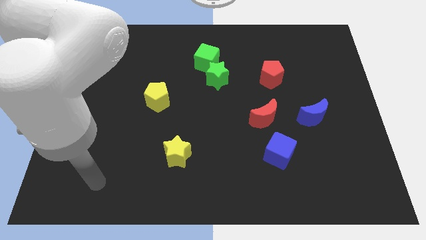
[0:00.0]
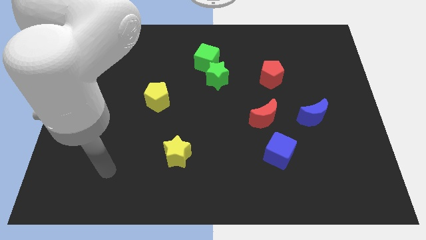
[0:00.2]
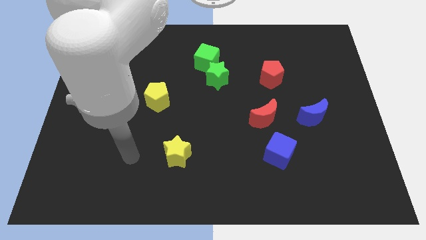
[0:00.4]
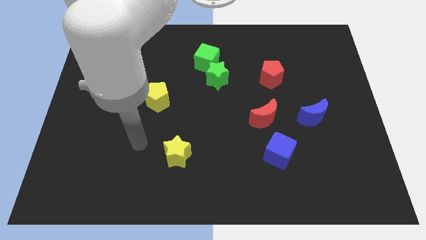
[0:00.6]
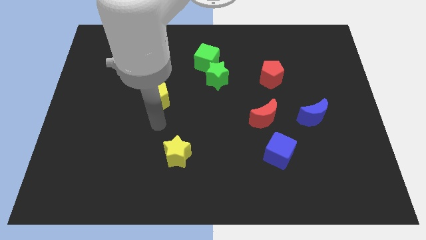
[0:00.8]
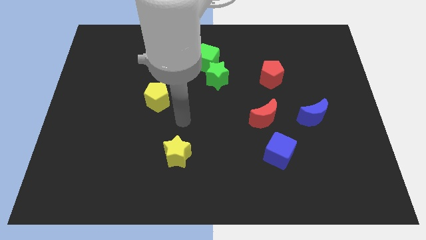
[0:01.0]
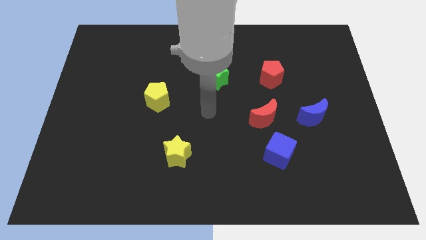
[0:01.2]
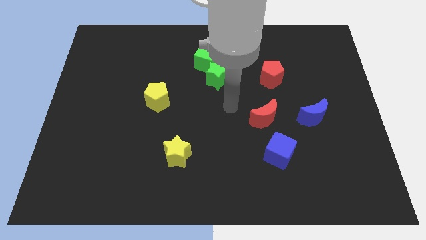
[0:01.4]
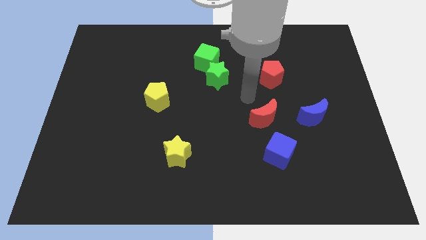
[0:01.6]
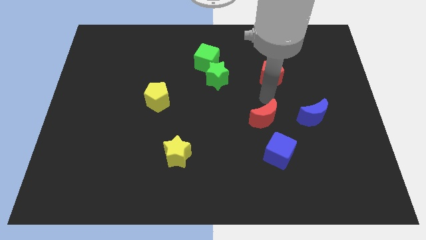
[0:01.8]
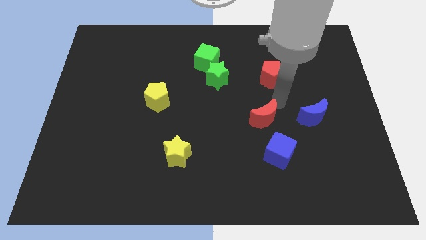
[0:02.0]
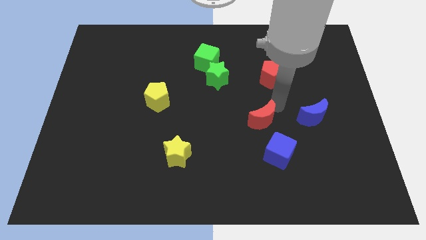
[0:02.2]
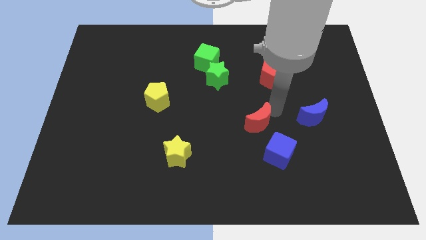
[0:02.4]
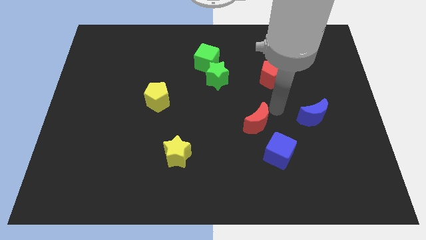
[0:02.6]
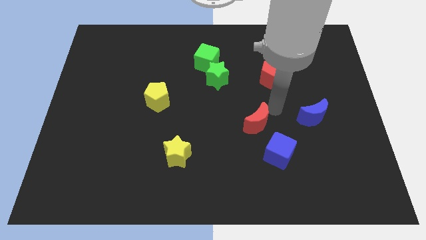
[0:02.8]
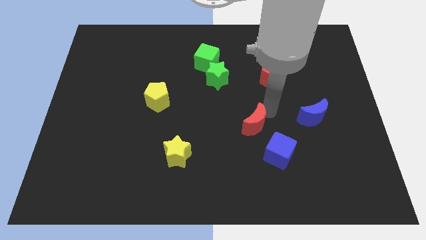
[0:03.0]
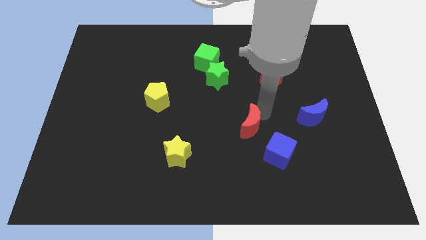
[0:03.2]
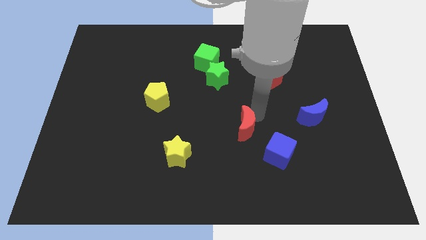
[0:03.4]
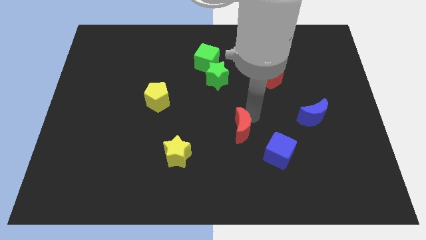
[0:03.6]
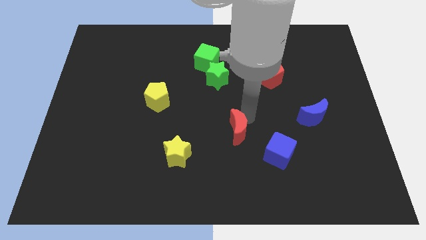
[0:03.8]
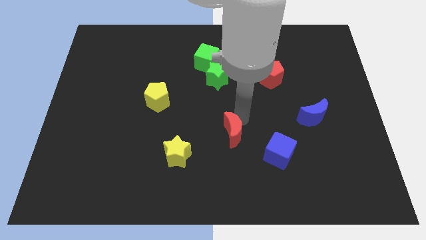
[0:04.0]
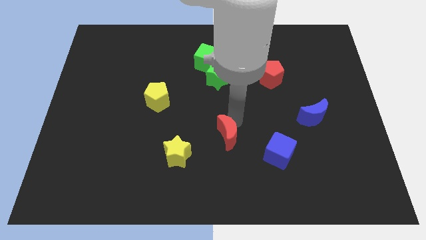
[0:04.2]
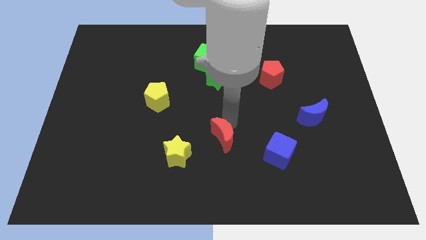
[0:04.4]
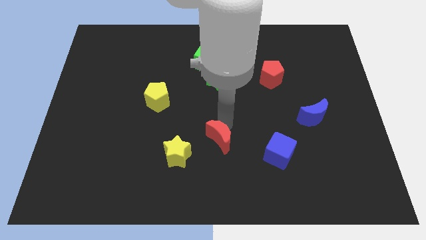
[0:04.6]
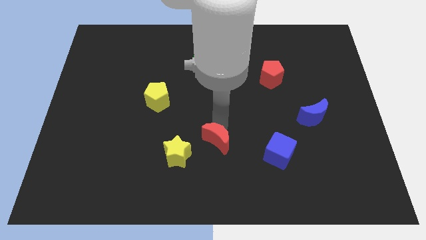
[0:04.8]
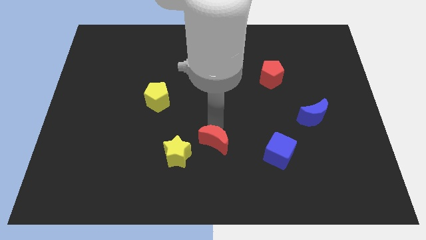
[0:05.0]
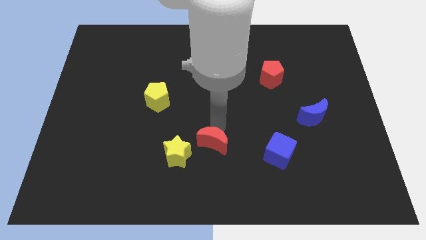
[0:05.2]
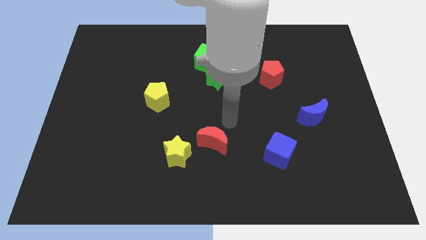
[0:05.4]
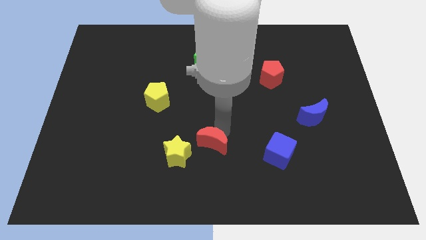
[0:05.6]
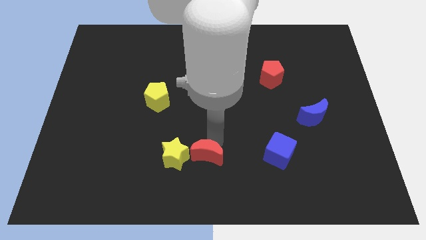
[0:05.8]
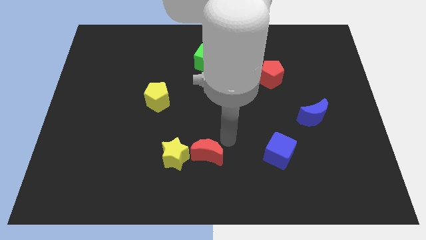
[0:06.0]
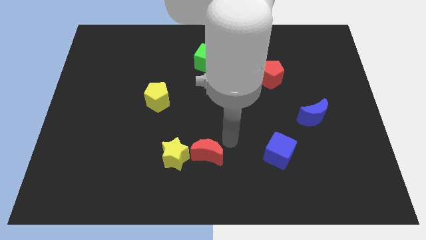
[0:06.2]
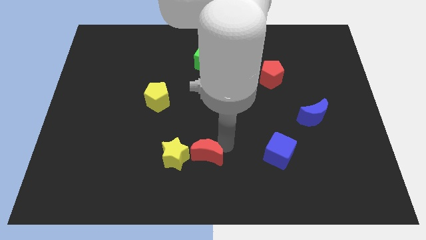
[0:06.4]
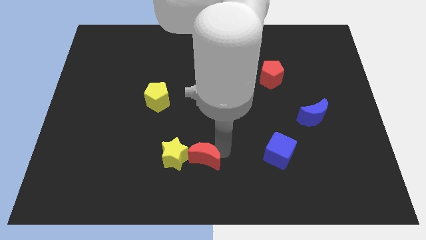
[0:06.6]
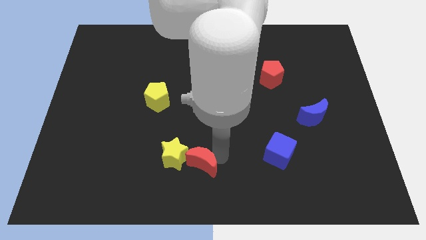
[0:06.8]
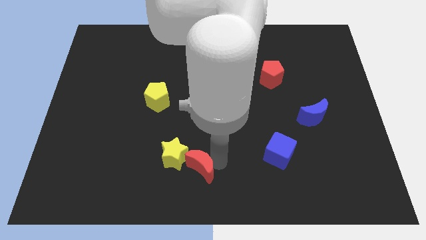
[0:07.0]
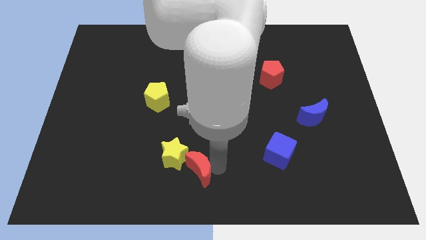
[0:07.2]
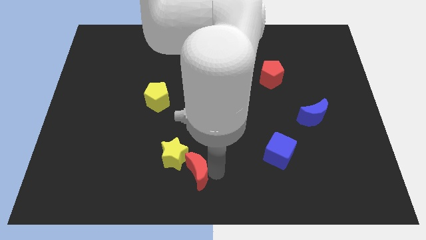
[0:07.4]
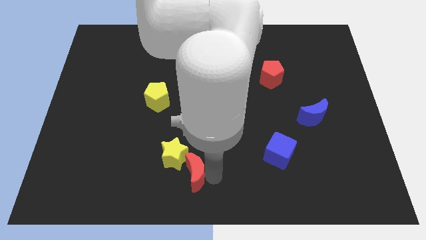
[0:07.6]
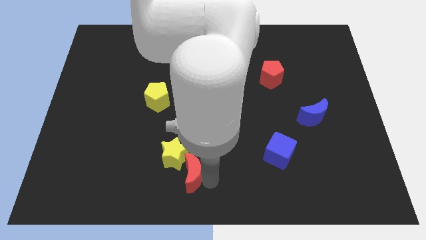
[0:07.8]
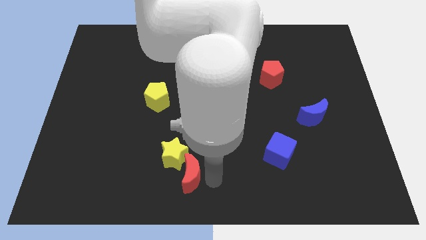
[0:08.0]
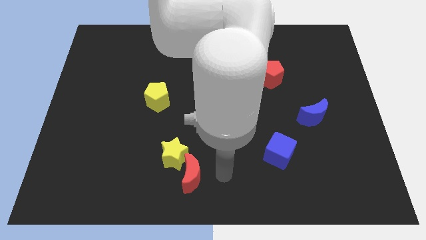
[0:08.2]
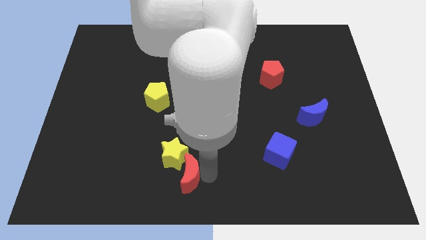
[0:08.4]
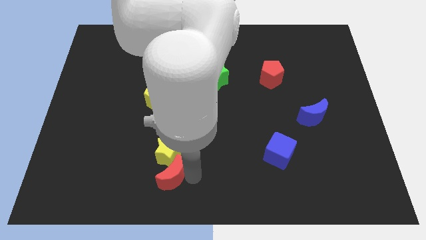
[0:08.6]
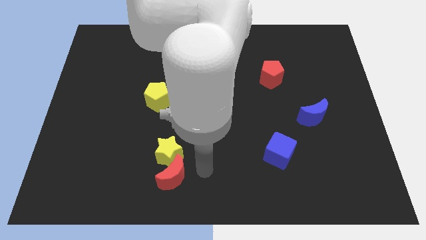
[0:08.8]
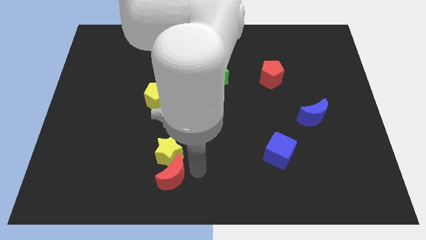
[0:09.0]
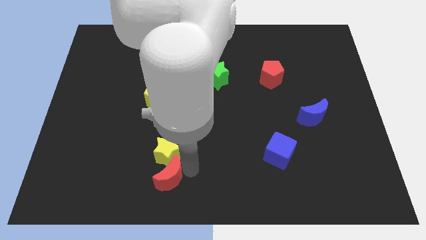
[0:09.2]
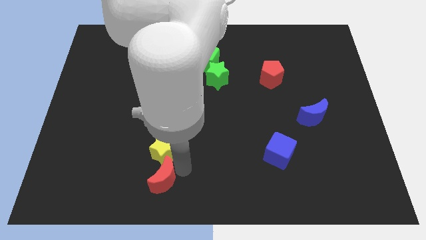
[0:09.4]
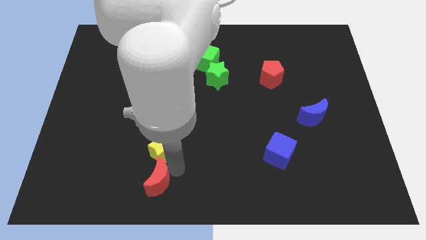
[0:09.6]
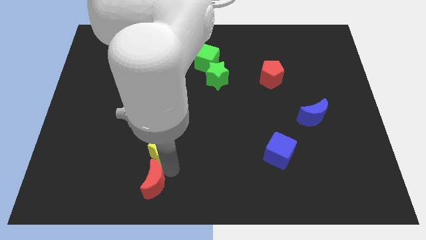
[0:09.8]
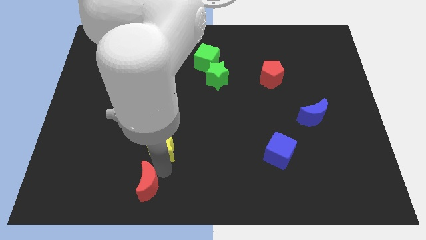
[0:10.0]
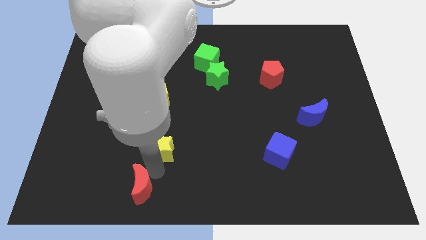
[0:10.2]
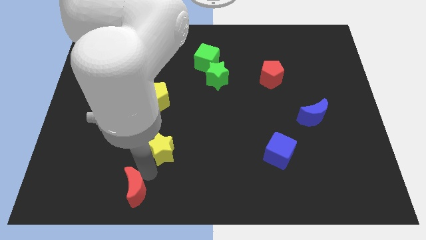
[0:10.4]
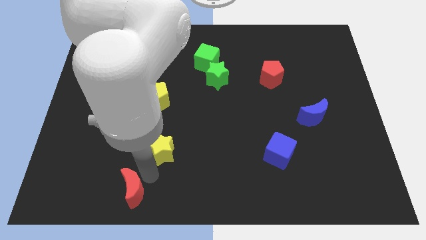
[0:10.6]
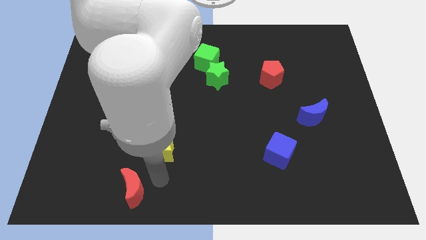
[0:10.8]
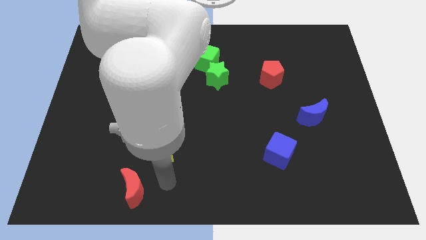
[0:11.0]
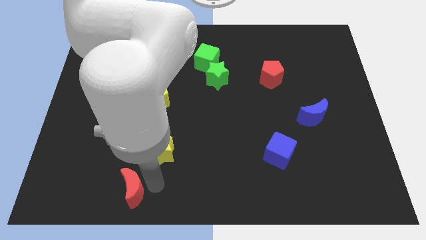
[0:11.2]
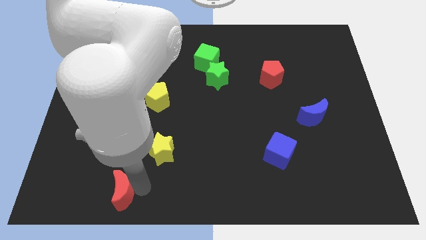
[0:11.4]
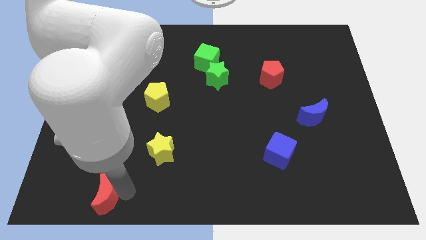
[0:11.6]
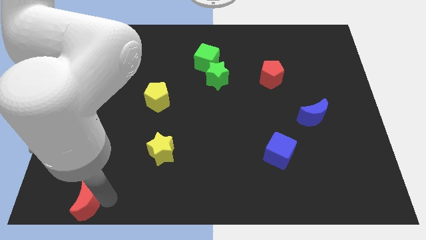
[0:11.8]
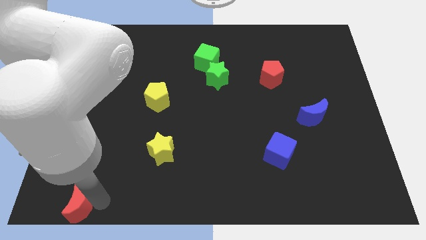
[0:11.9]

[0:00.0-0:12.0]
slide the red moon to the bottom left

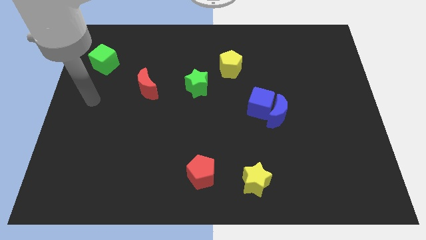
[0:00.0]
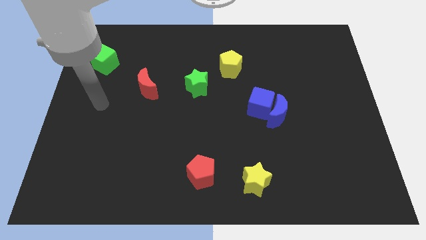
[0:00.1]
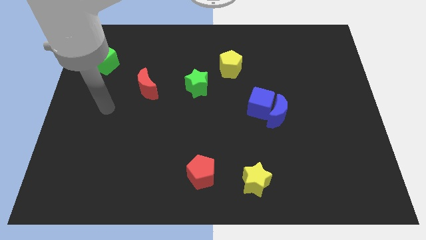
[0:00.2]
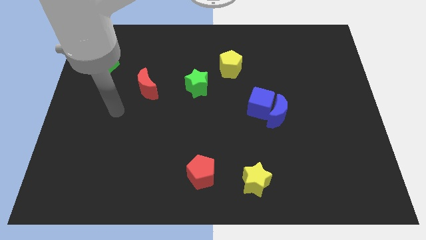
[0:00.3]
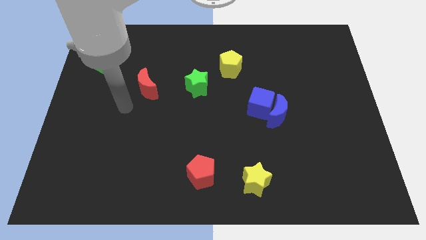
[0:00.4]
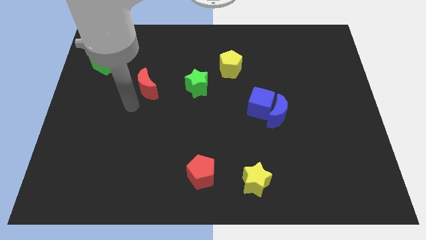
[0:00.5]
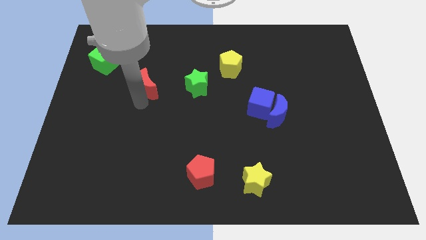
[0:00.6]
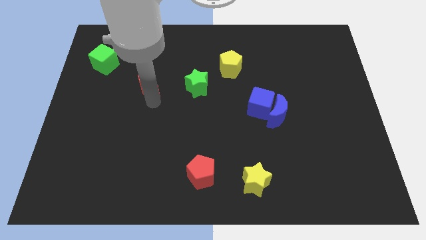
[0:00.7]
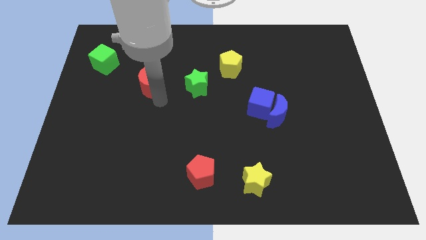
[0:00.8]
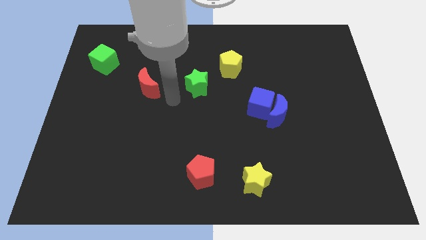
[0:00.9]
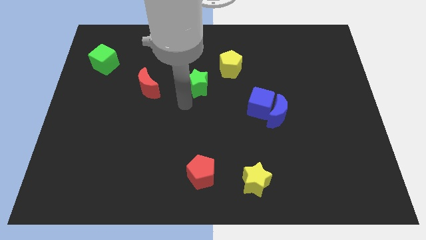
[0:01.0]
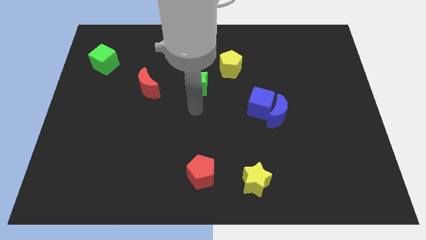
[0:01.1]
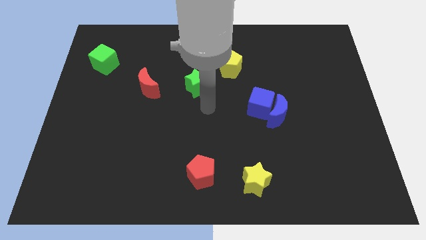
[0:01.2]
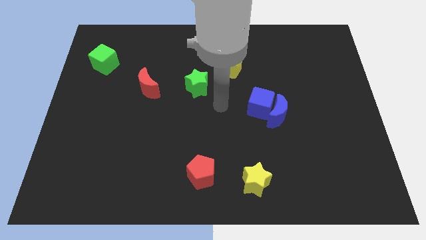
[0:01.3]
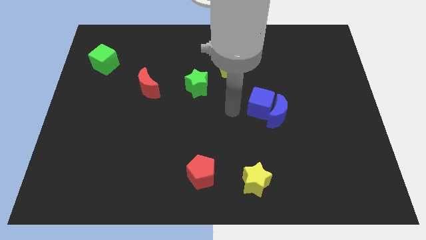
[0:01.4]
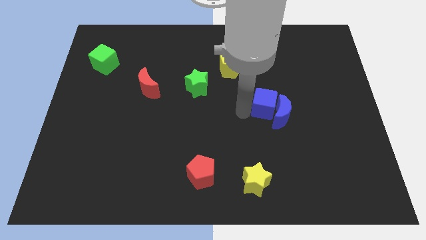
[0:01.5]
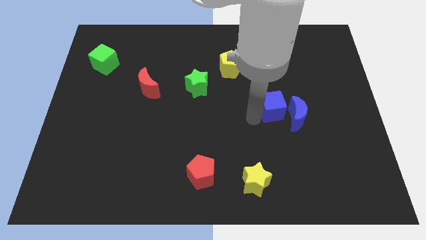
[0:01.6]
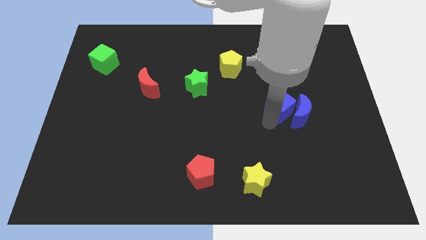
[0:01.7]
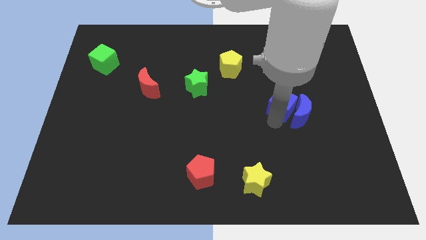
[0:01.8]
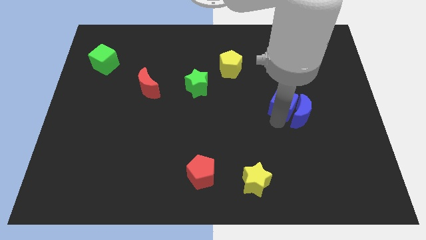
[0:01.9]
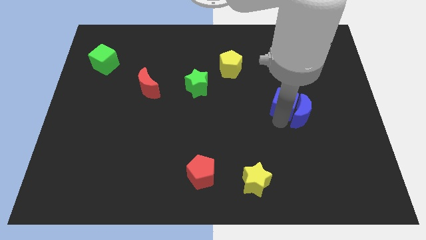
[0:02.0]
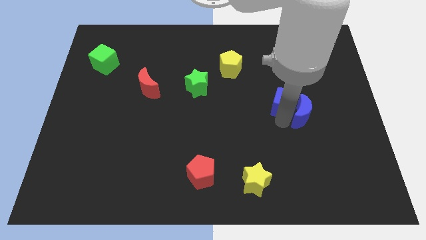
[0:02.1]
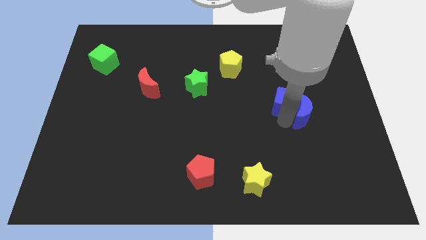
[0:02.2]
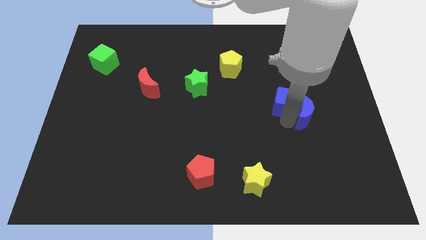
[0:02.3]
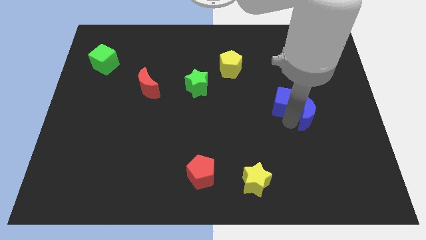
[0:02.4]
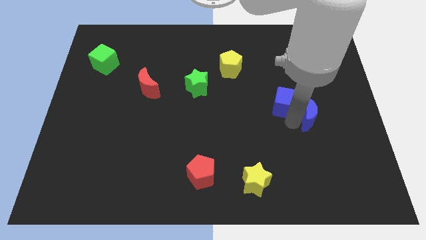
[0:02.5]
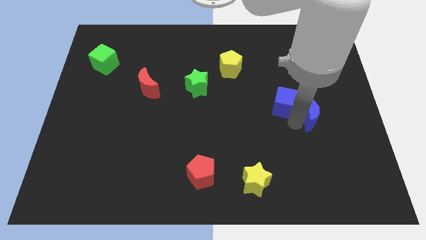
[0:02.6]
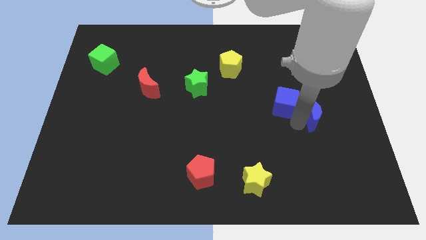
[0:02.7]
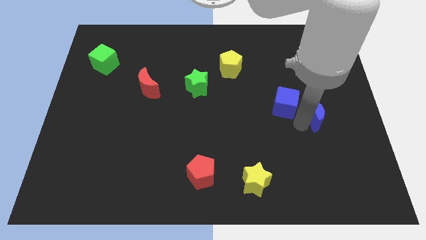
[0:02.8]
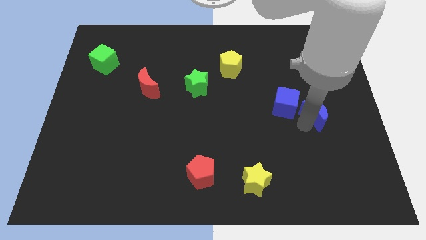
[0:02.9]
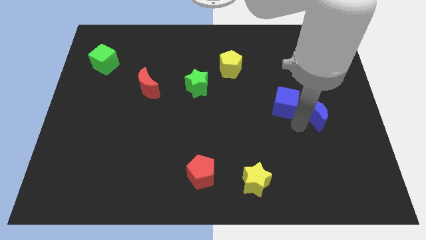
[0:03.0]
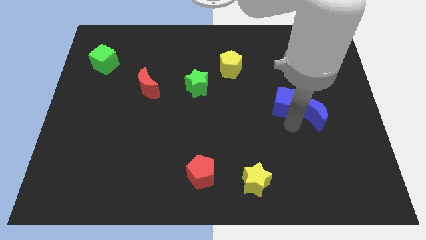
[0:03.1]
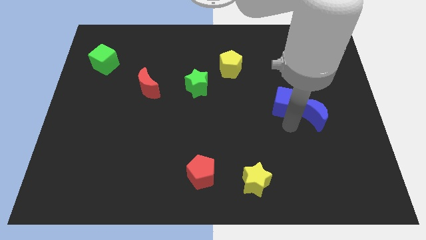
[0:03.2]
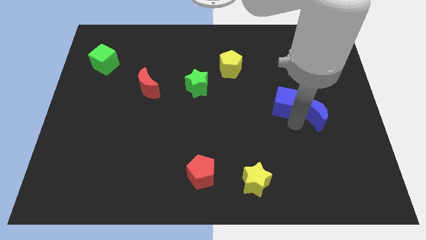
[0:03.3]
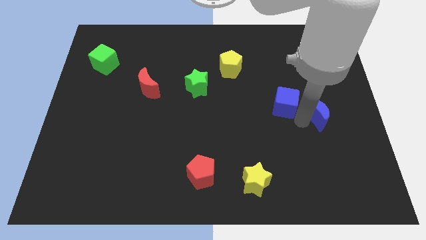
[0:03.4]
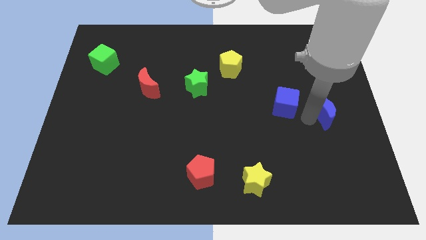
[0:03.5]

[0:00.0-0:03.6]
slide the blue moon to the center right
